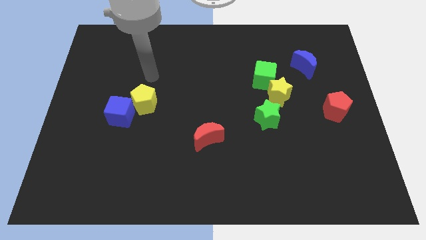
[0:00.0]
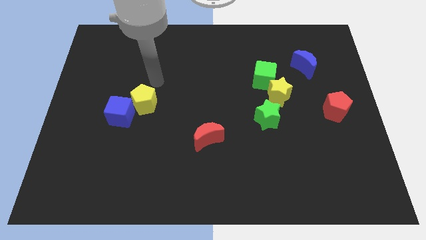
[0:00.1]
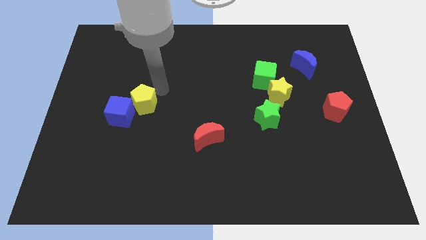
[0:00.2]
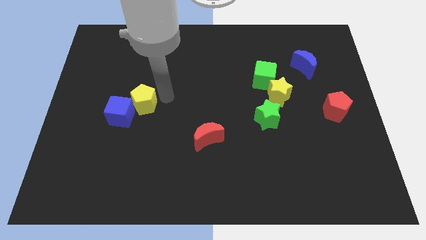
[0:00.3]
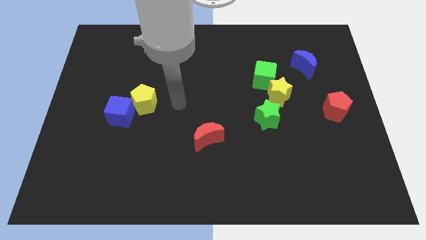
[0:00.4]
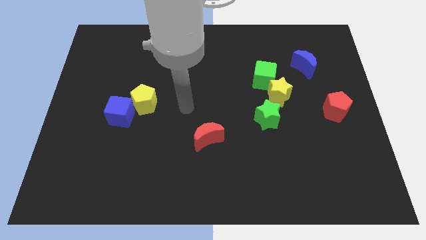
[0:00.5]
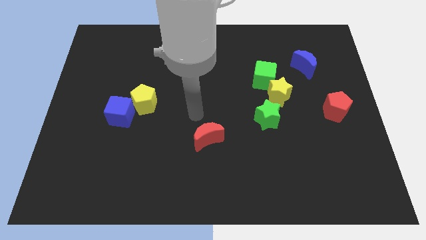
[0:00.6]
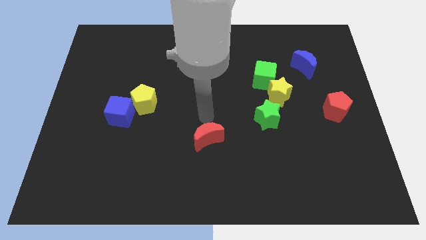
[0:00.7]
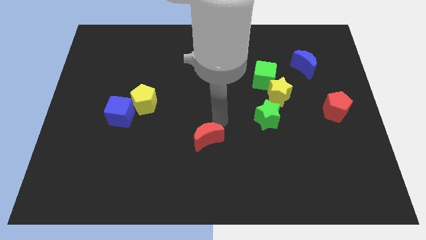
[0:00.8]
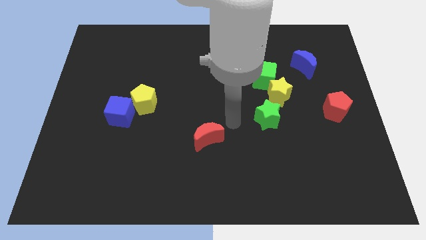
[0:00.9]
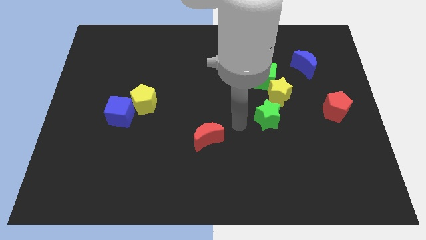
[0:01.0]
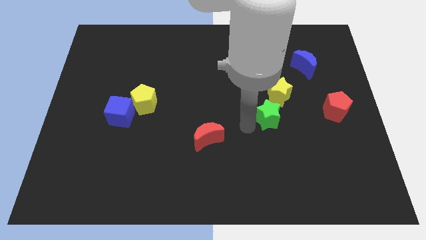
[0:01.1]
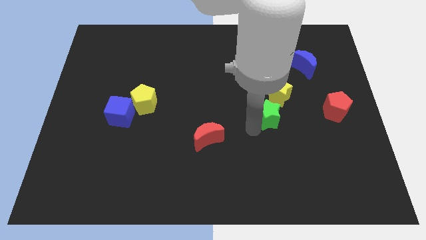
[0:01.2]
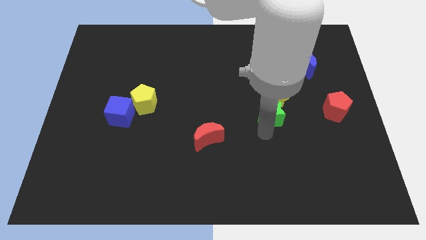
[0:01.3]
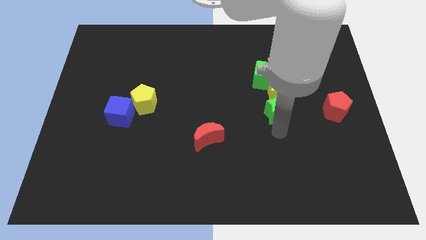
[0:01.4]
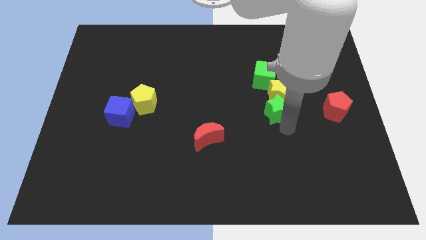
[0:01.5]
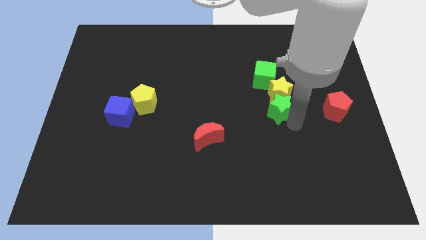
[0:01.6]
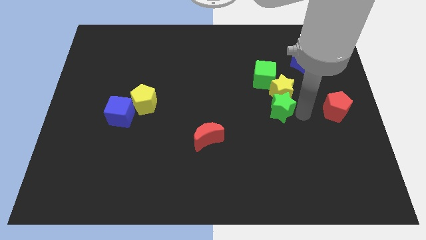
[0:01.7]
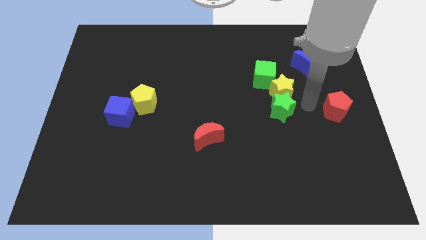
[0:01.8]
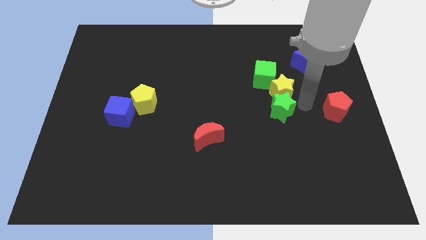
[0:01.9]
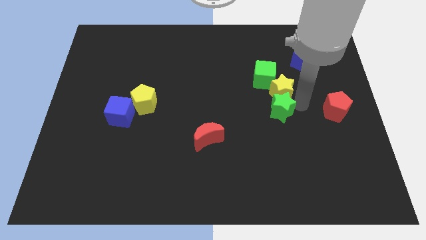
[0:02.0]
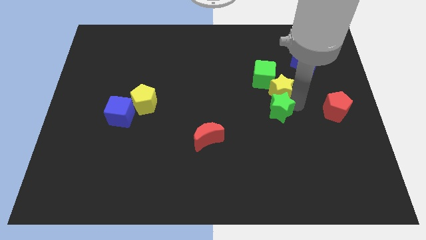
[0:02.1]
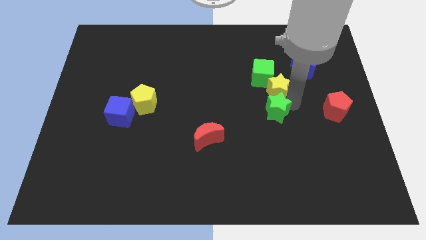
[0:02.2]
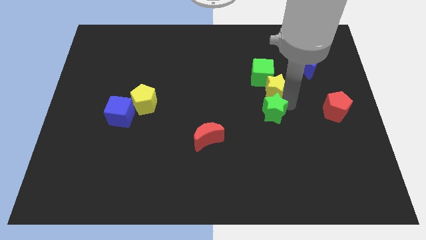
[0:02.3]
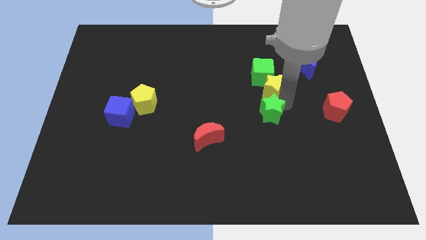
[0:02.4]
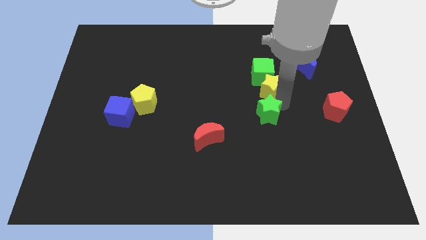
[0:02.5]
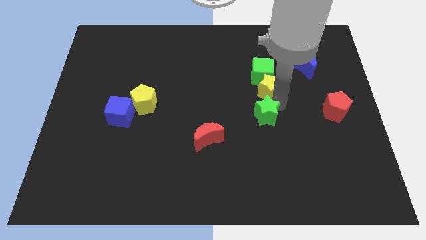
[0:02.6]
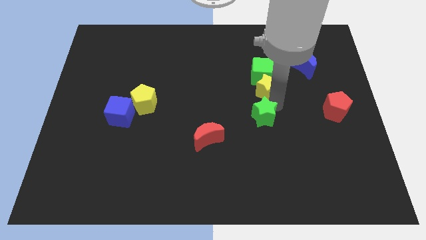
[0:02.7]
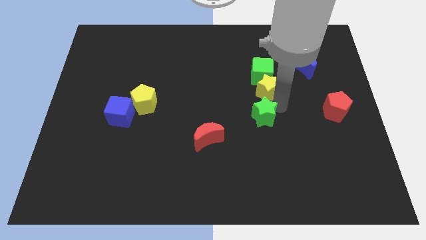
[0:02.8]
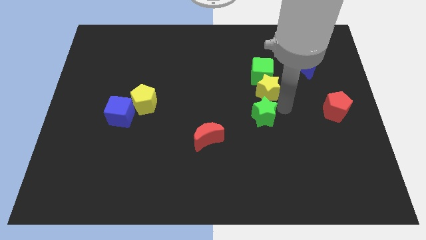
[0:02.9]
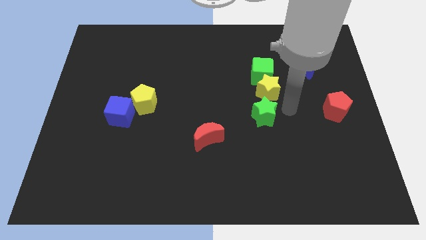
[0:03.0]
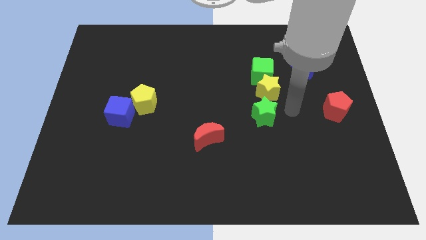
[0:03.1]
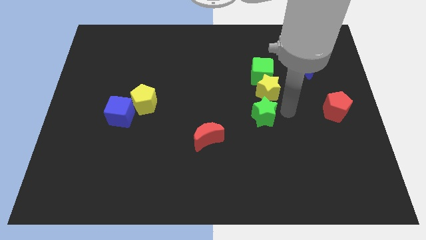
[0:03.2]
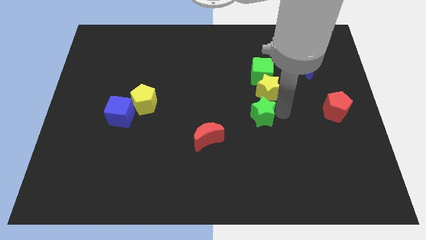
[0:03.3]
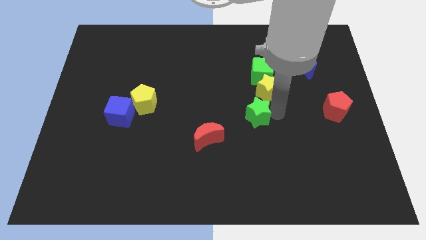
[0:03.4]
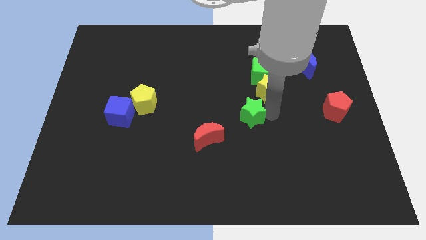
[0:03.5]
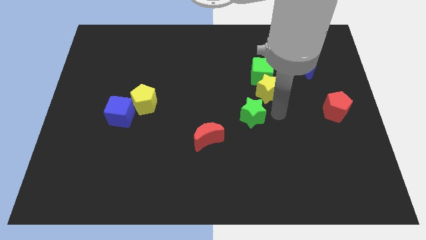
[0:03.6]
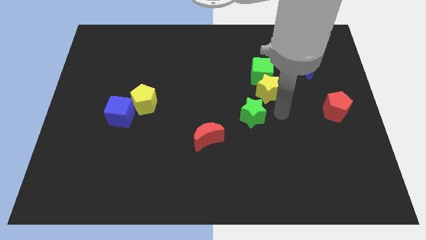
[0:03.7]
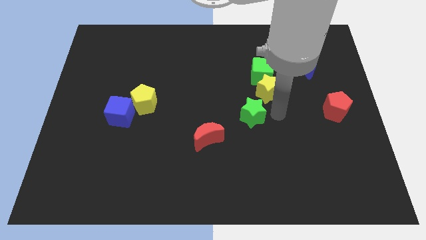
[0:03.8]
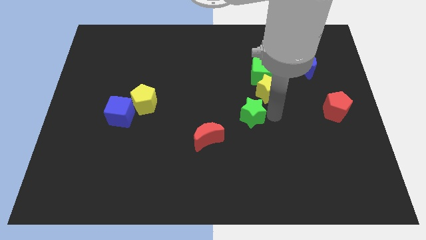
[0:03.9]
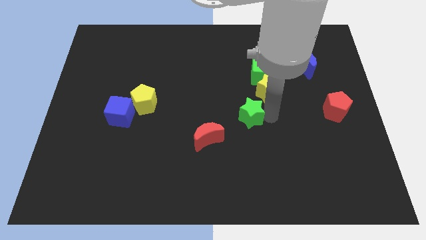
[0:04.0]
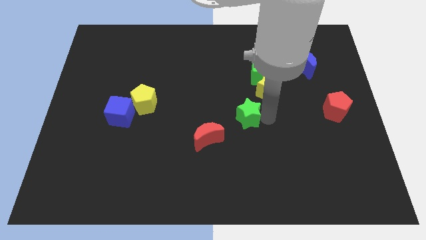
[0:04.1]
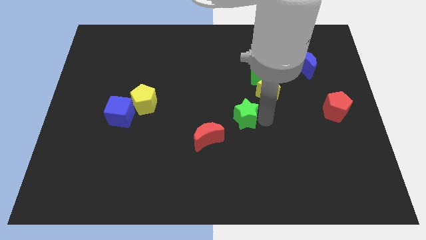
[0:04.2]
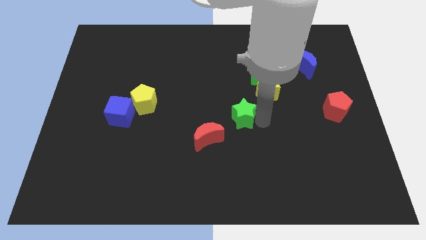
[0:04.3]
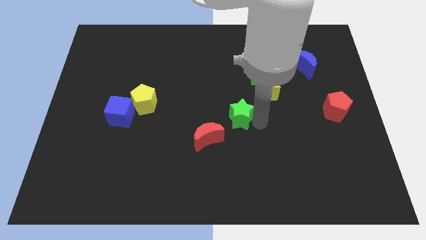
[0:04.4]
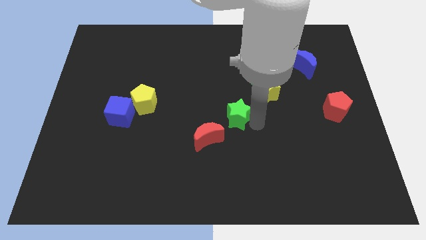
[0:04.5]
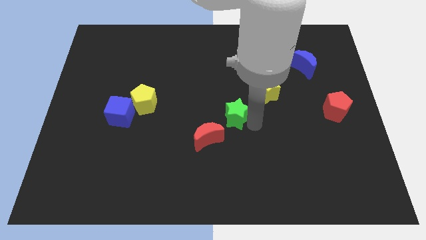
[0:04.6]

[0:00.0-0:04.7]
move the green star slightly left

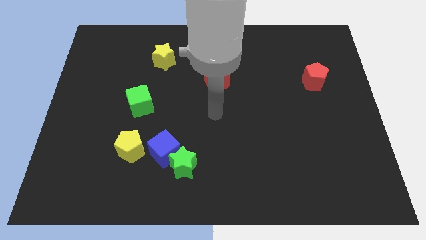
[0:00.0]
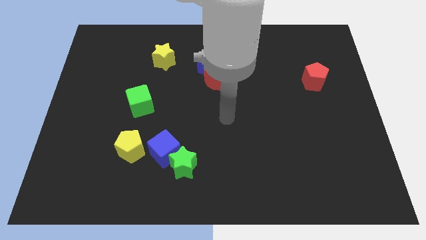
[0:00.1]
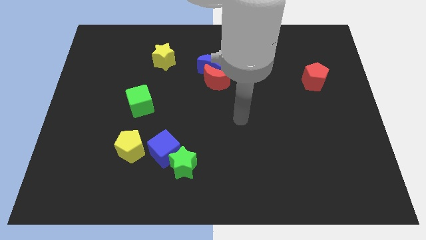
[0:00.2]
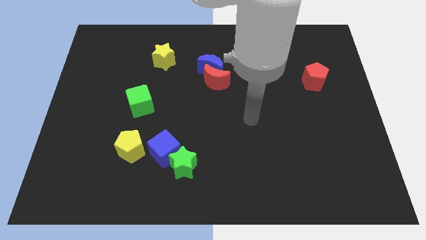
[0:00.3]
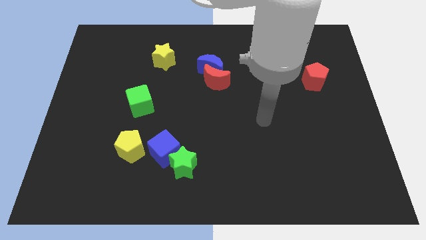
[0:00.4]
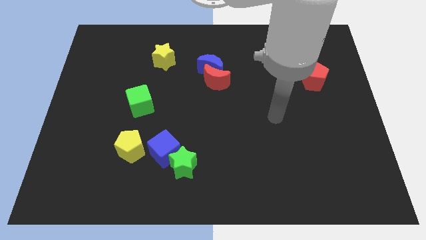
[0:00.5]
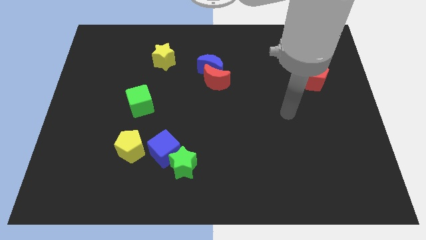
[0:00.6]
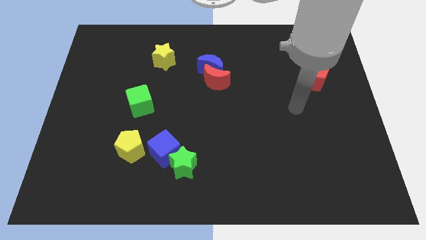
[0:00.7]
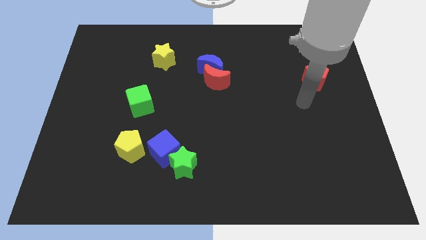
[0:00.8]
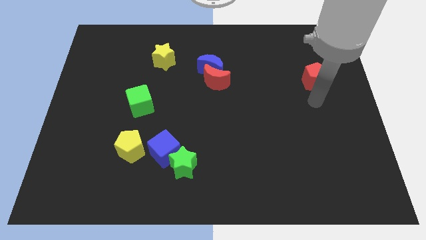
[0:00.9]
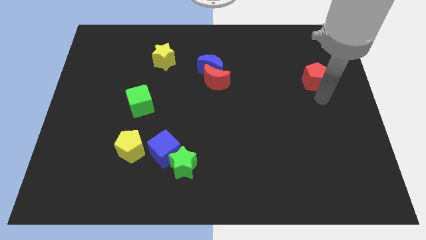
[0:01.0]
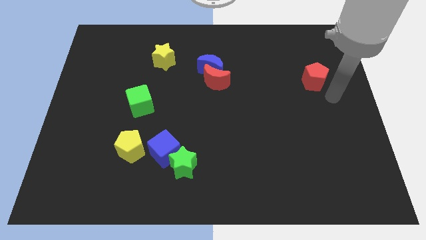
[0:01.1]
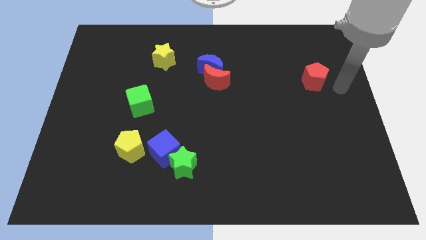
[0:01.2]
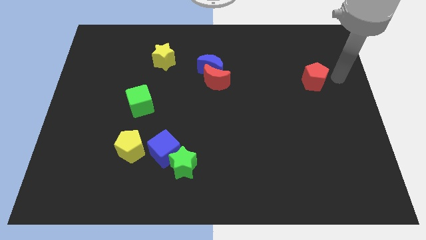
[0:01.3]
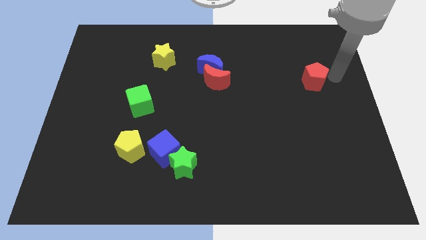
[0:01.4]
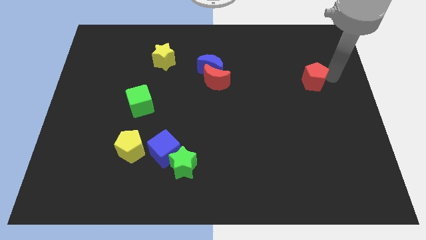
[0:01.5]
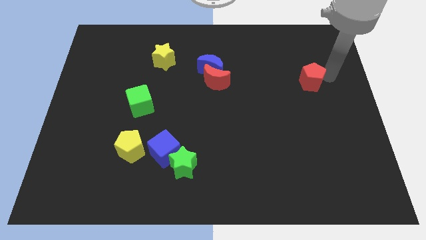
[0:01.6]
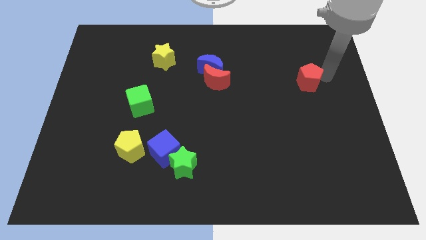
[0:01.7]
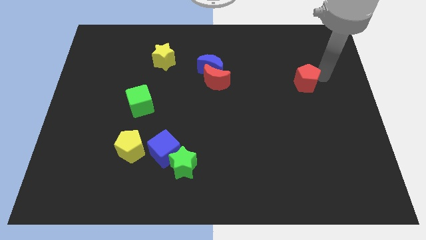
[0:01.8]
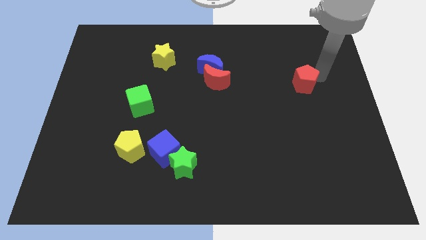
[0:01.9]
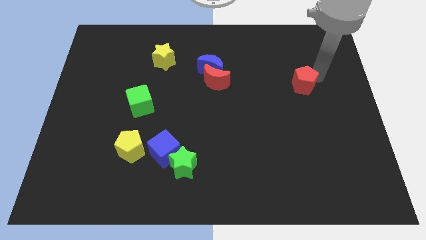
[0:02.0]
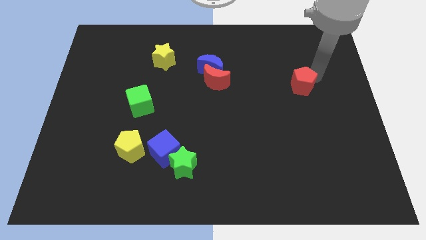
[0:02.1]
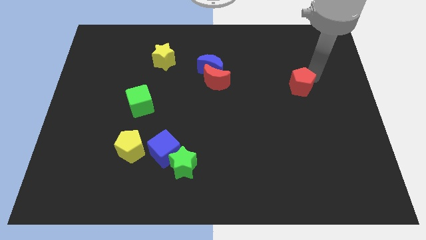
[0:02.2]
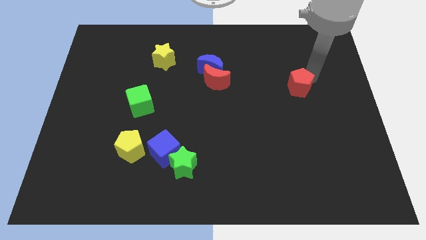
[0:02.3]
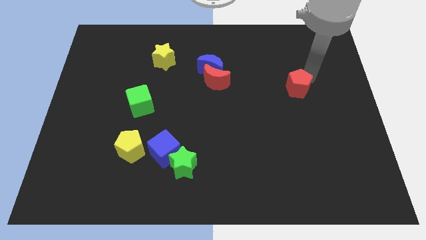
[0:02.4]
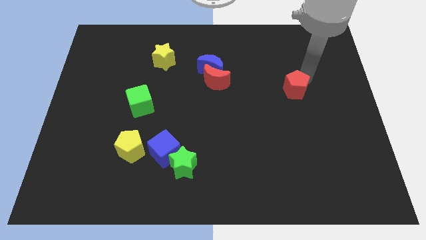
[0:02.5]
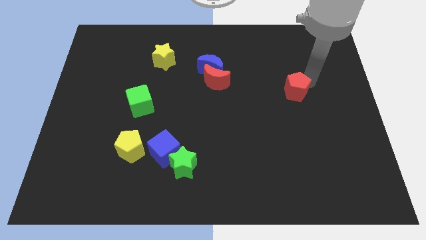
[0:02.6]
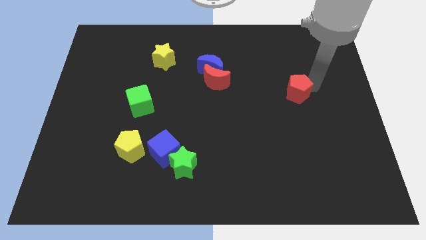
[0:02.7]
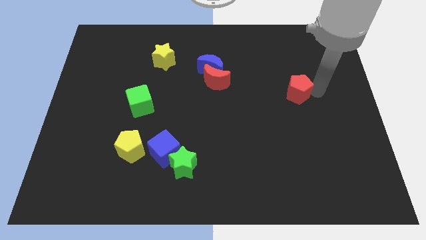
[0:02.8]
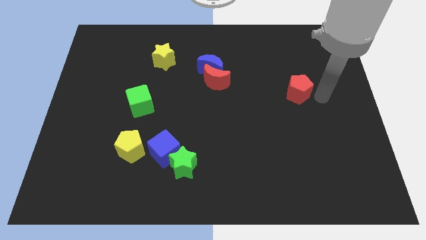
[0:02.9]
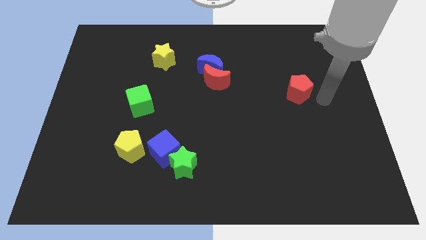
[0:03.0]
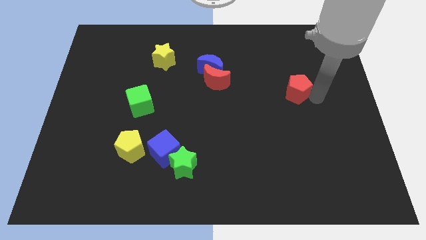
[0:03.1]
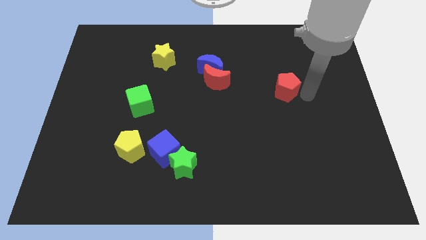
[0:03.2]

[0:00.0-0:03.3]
move the red pentagon a little bit to the left

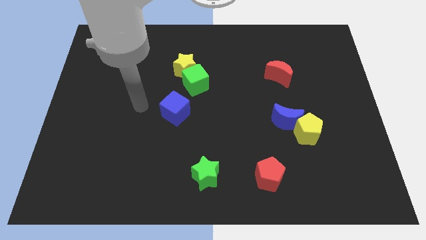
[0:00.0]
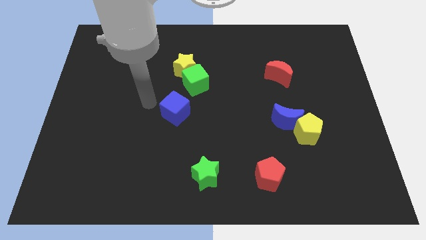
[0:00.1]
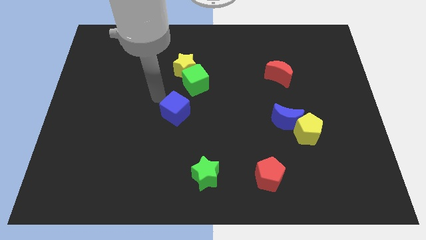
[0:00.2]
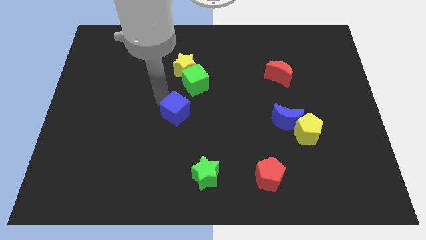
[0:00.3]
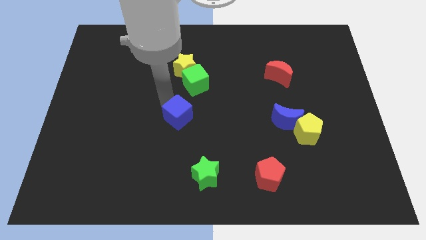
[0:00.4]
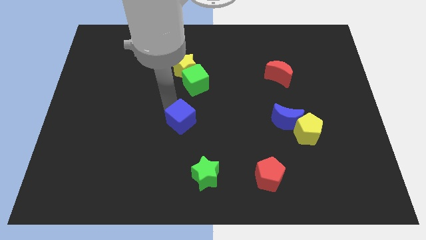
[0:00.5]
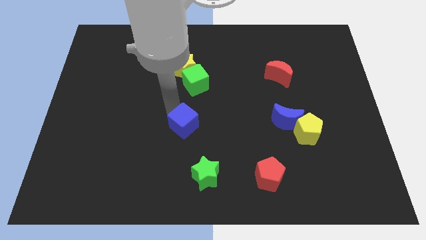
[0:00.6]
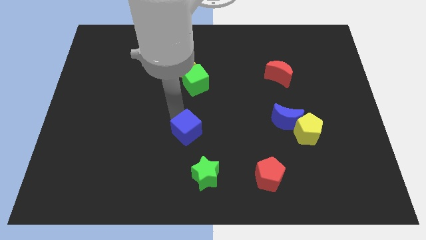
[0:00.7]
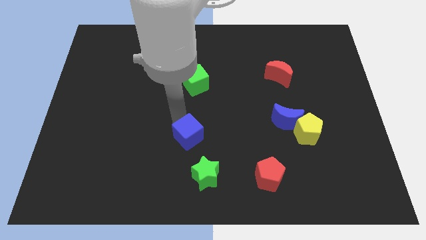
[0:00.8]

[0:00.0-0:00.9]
push the blue cube down and right diagonally a little bit
